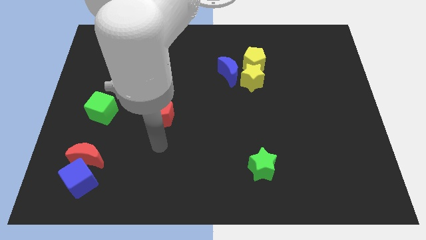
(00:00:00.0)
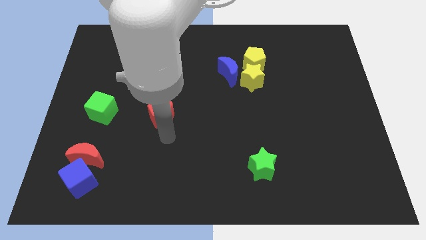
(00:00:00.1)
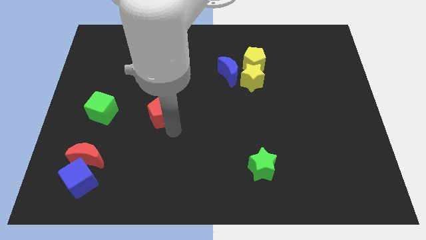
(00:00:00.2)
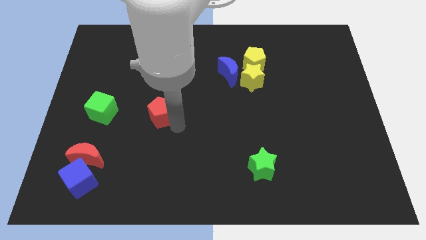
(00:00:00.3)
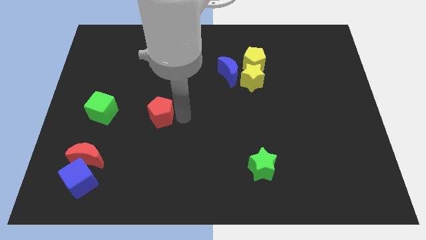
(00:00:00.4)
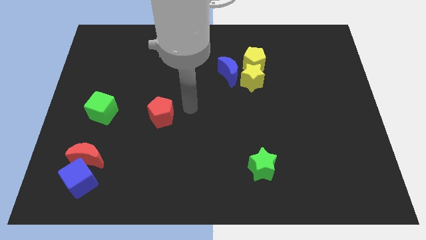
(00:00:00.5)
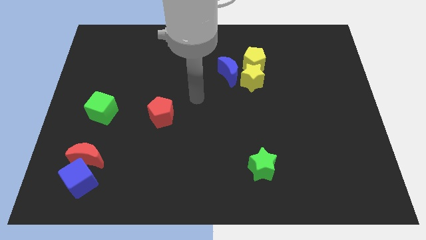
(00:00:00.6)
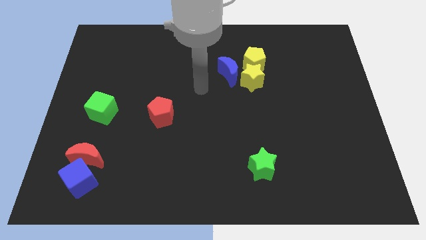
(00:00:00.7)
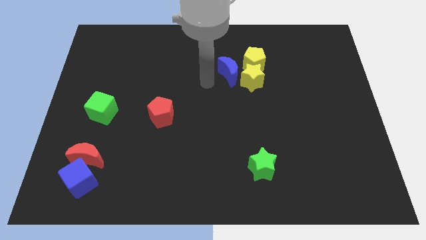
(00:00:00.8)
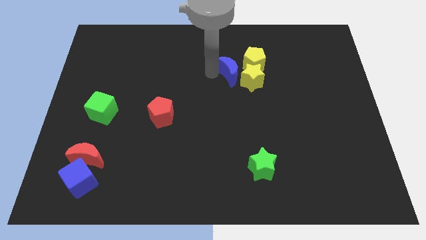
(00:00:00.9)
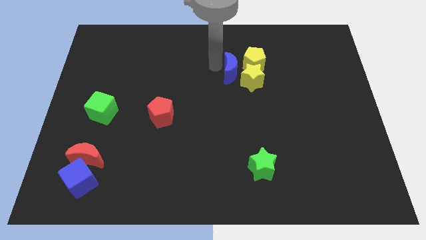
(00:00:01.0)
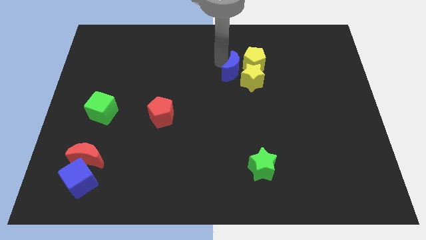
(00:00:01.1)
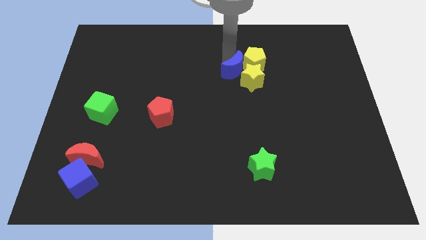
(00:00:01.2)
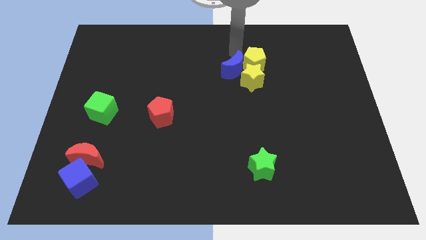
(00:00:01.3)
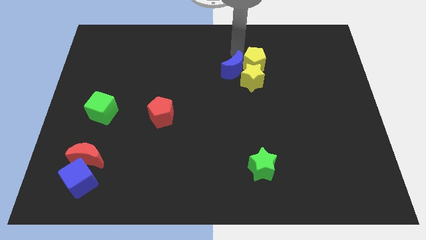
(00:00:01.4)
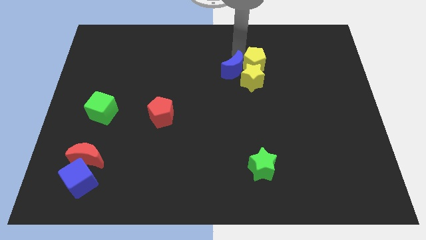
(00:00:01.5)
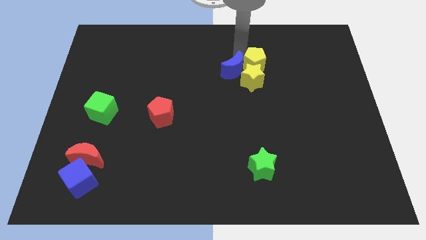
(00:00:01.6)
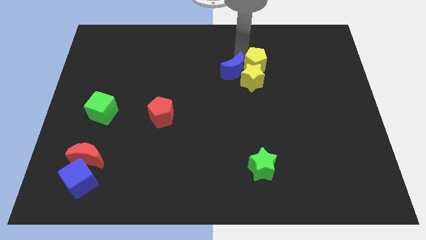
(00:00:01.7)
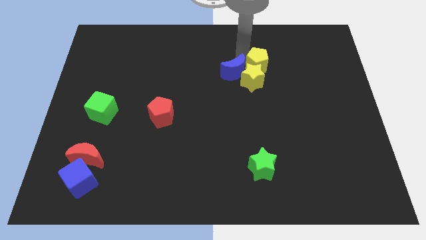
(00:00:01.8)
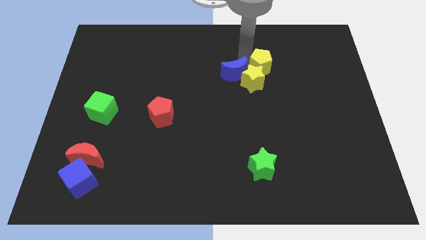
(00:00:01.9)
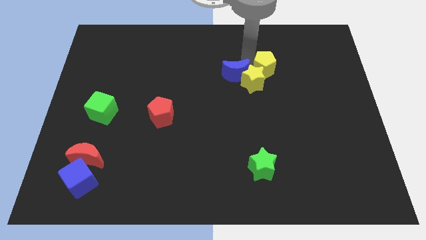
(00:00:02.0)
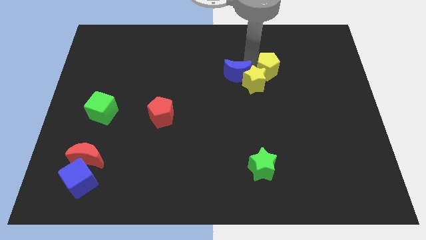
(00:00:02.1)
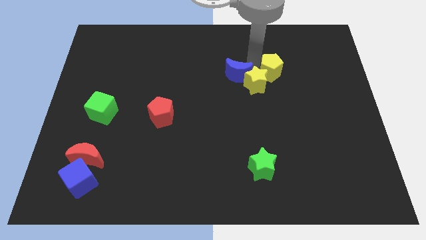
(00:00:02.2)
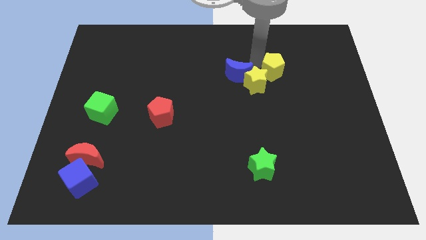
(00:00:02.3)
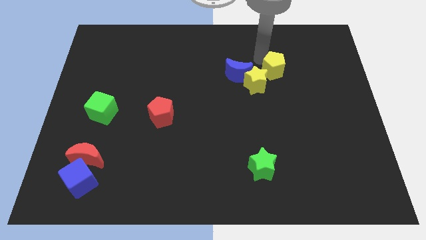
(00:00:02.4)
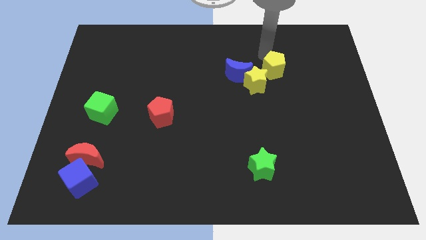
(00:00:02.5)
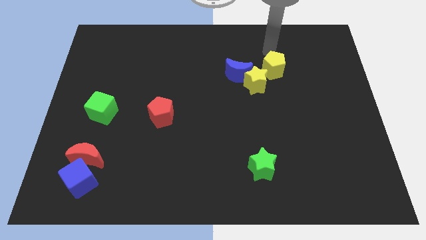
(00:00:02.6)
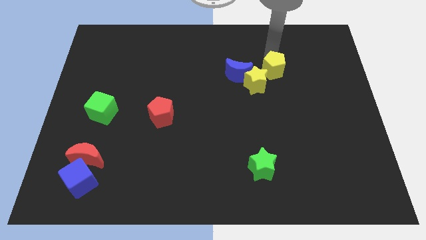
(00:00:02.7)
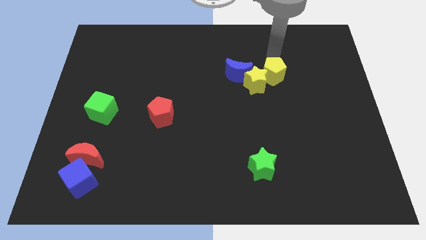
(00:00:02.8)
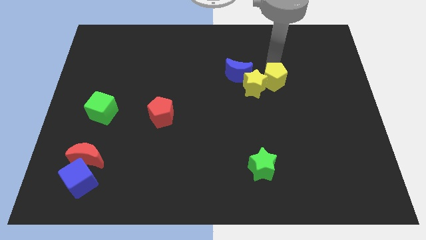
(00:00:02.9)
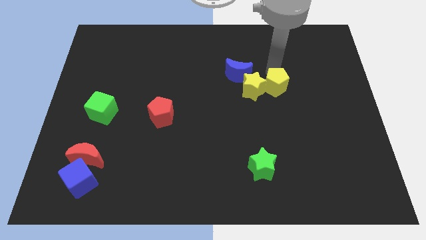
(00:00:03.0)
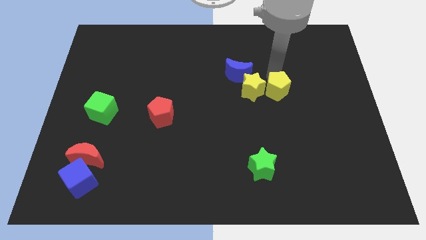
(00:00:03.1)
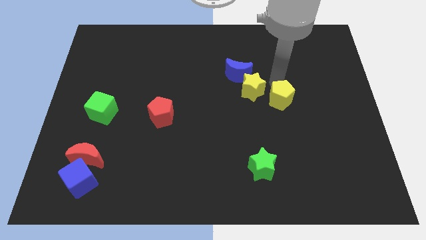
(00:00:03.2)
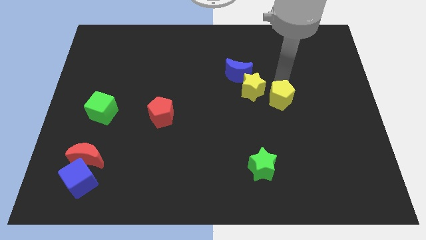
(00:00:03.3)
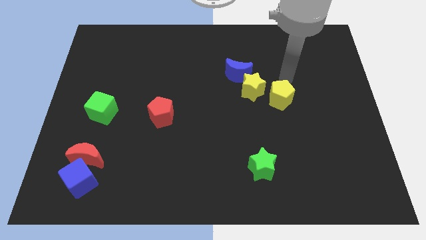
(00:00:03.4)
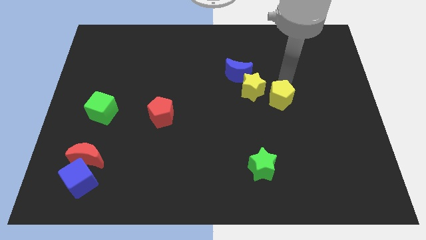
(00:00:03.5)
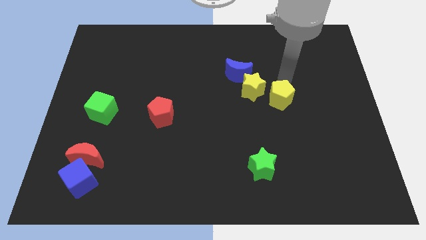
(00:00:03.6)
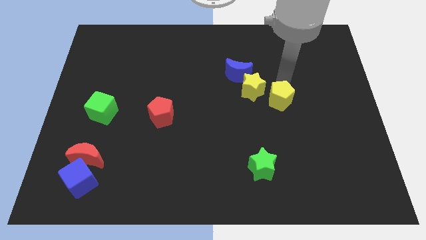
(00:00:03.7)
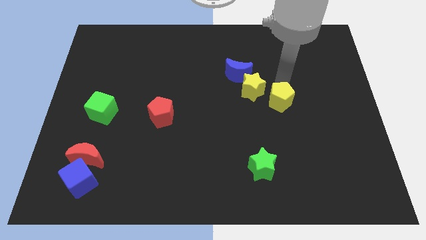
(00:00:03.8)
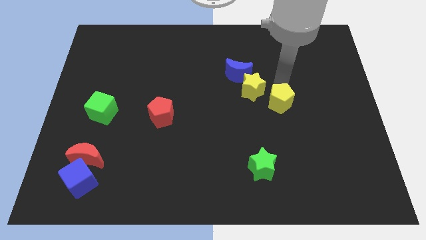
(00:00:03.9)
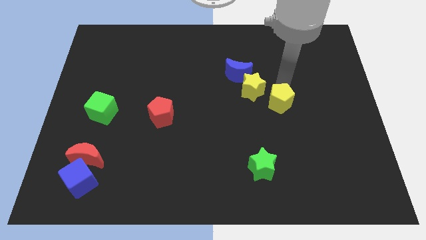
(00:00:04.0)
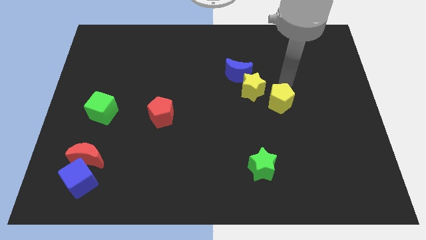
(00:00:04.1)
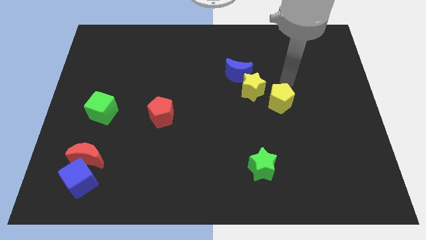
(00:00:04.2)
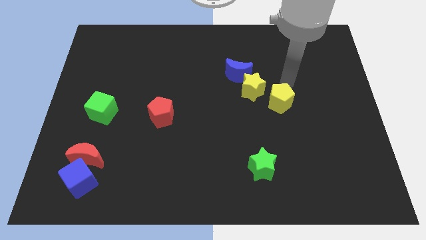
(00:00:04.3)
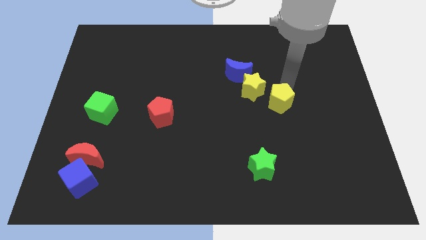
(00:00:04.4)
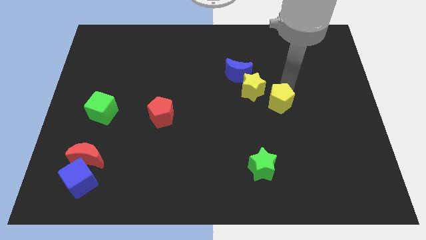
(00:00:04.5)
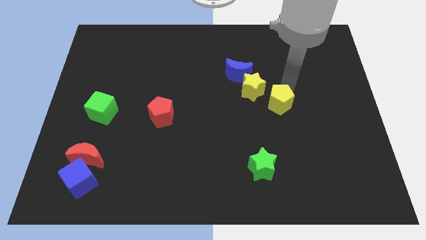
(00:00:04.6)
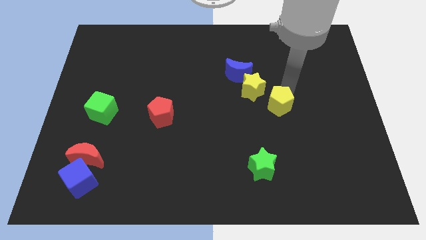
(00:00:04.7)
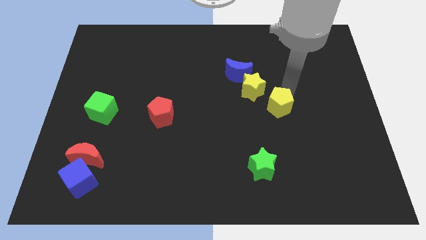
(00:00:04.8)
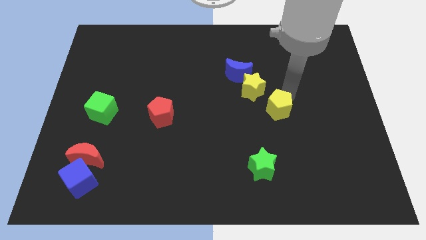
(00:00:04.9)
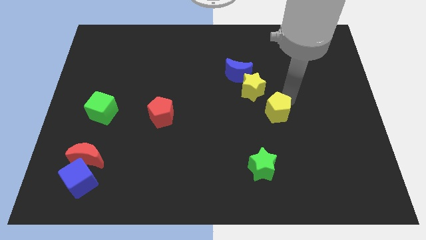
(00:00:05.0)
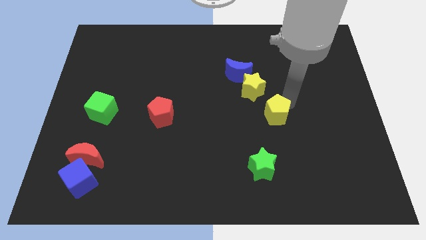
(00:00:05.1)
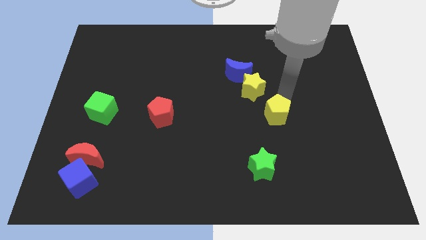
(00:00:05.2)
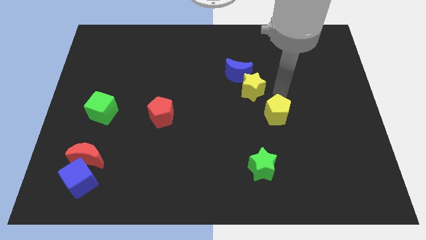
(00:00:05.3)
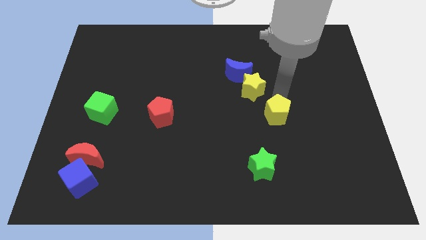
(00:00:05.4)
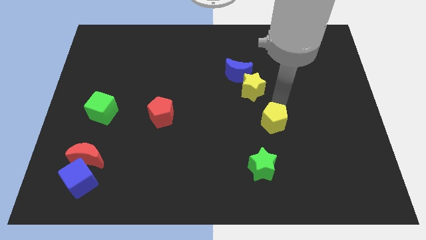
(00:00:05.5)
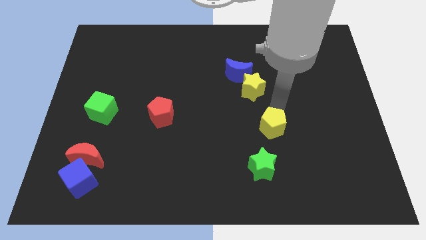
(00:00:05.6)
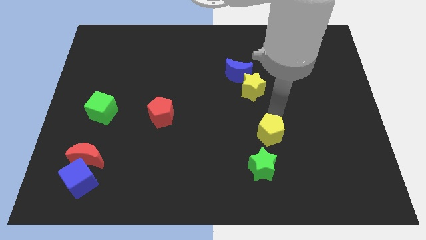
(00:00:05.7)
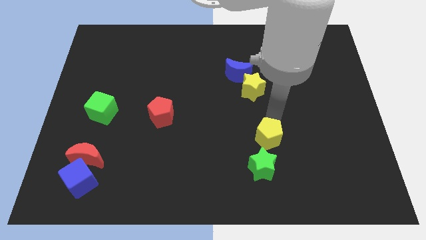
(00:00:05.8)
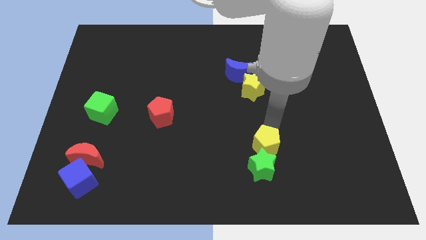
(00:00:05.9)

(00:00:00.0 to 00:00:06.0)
slide the yellow pentagon to the green star

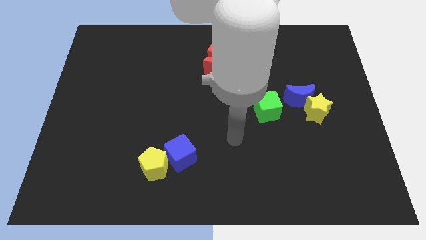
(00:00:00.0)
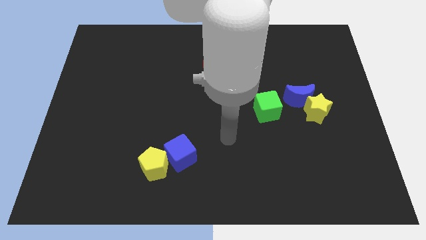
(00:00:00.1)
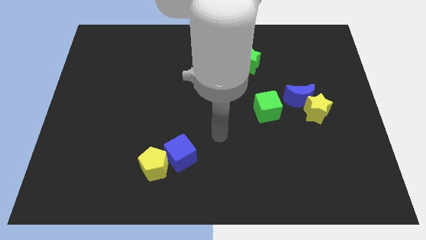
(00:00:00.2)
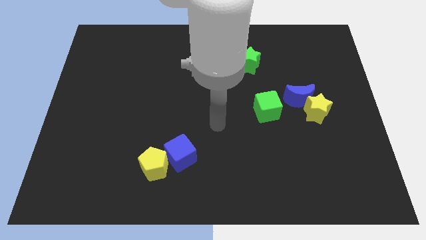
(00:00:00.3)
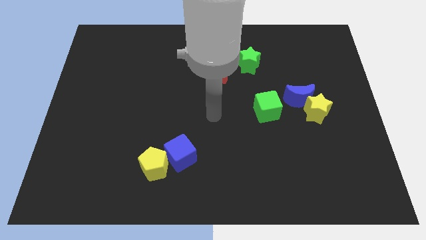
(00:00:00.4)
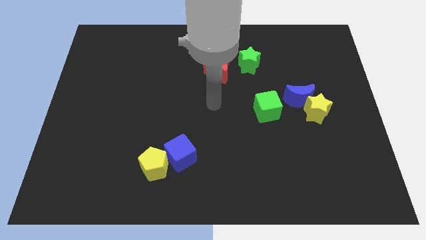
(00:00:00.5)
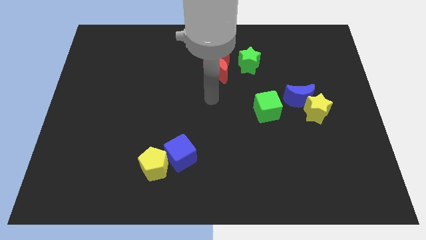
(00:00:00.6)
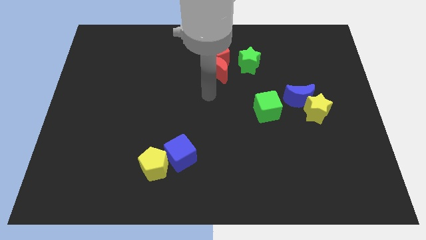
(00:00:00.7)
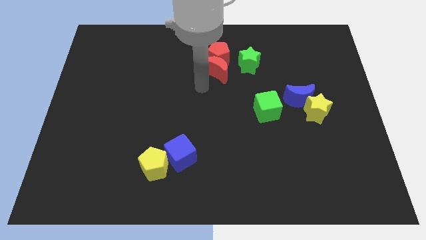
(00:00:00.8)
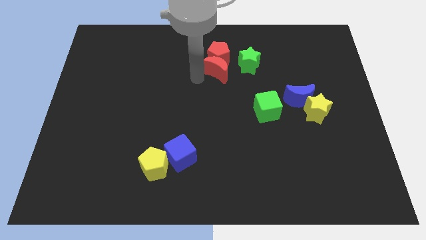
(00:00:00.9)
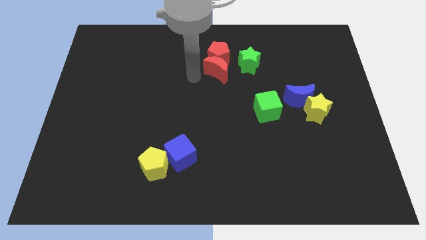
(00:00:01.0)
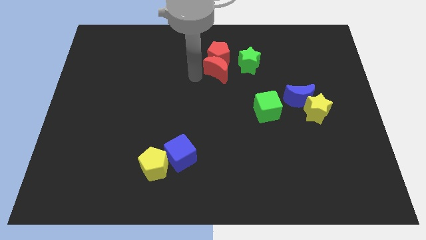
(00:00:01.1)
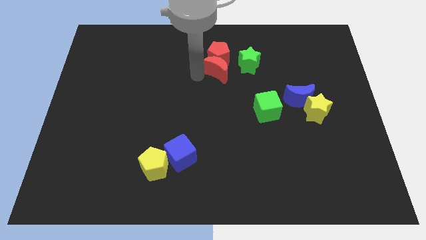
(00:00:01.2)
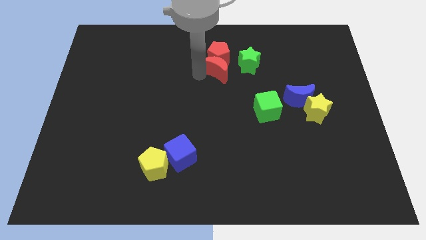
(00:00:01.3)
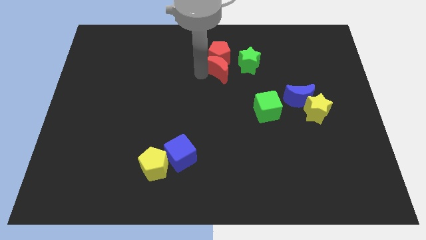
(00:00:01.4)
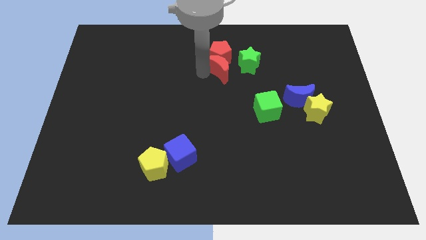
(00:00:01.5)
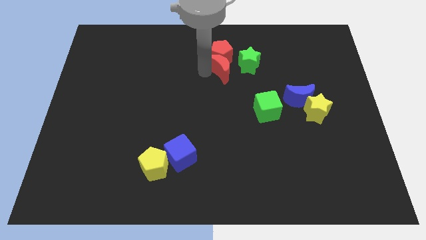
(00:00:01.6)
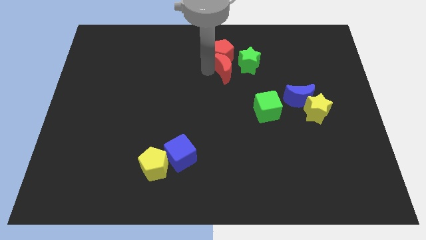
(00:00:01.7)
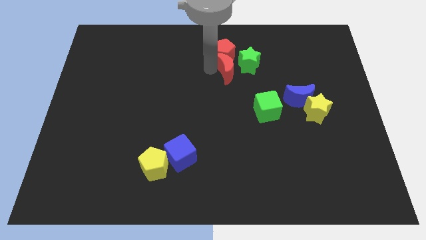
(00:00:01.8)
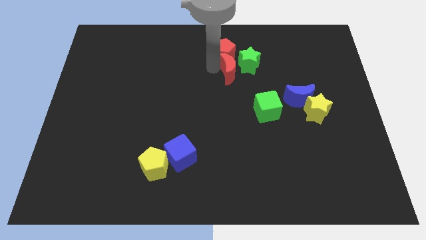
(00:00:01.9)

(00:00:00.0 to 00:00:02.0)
slide the red moon close to the green star
